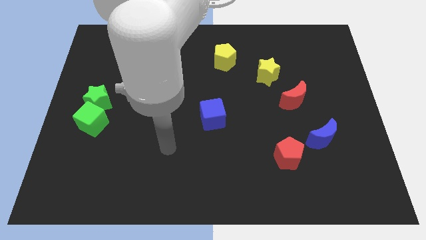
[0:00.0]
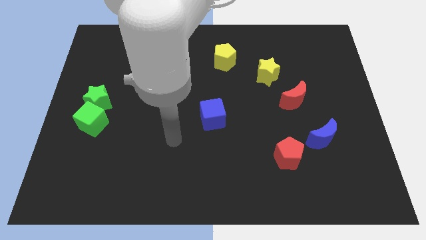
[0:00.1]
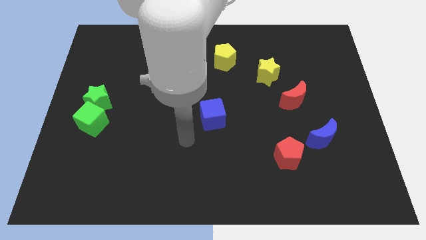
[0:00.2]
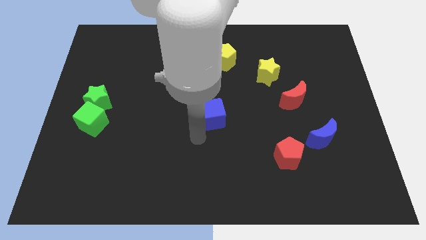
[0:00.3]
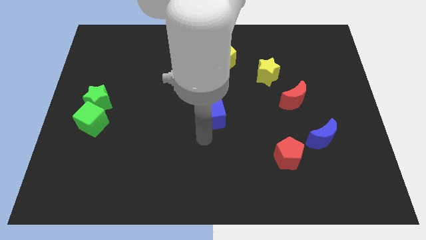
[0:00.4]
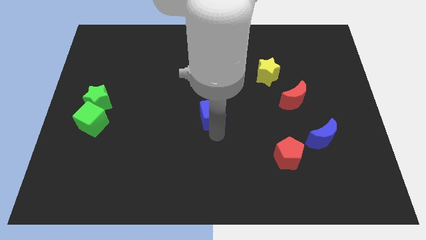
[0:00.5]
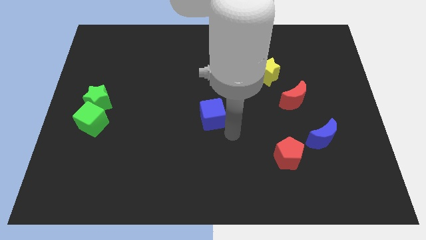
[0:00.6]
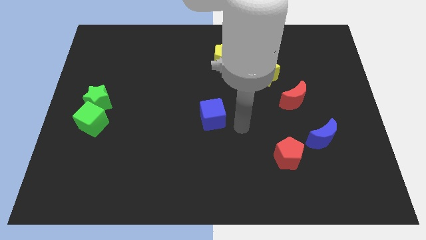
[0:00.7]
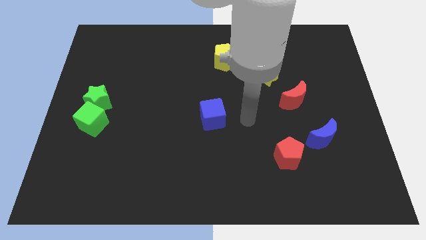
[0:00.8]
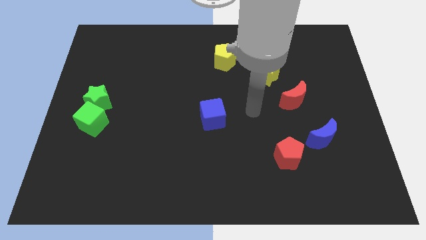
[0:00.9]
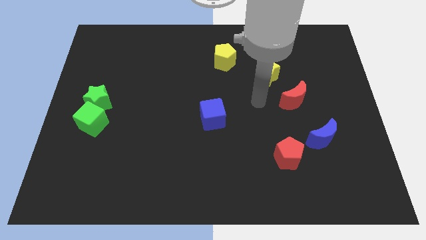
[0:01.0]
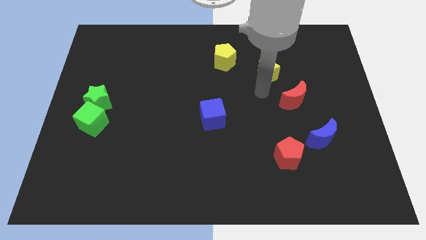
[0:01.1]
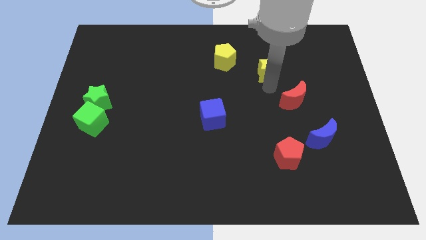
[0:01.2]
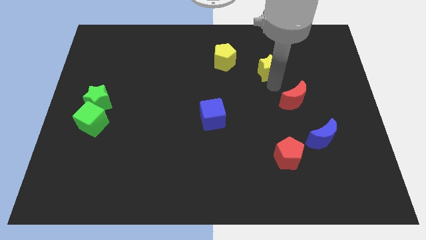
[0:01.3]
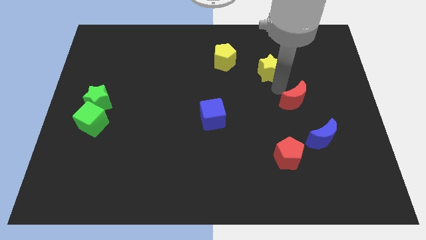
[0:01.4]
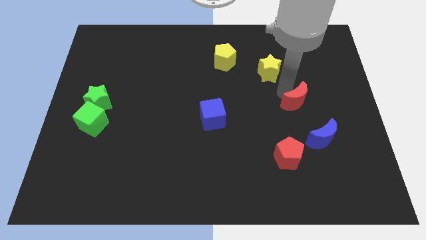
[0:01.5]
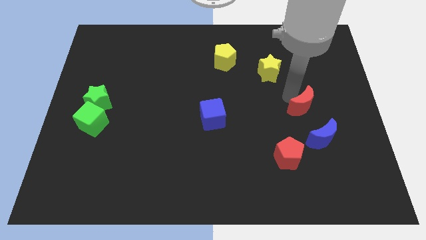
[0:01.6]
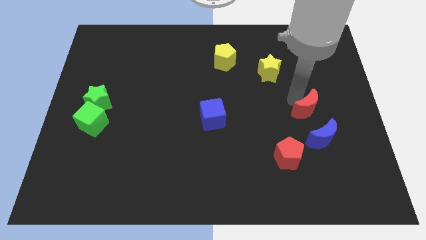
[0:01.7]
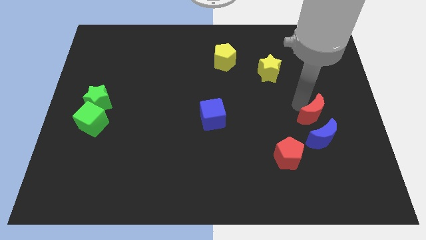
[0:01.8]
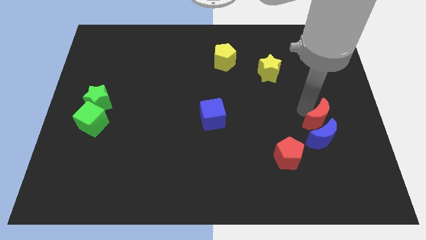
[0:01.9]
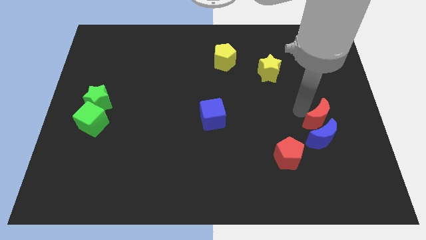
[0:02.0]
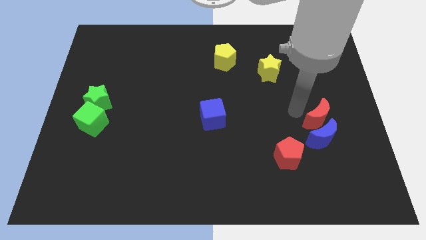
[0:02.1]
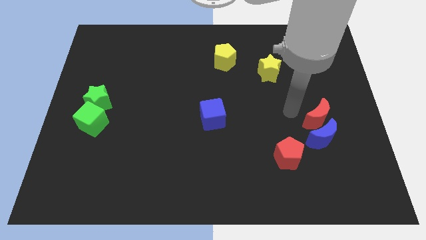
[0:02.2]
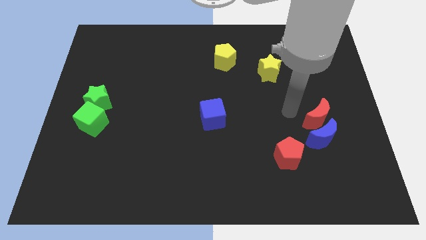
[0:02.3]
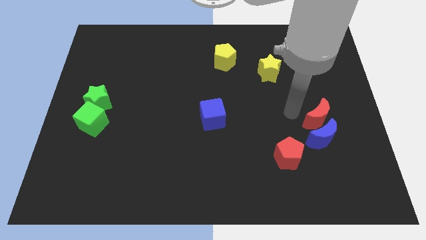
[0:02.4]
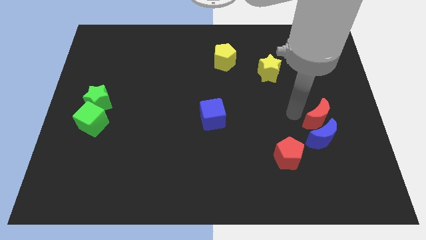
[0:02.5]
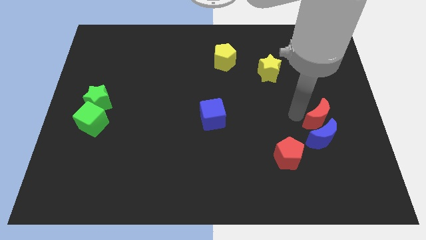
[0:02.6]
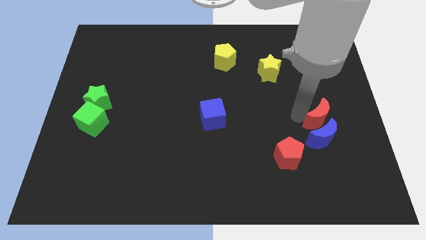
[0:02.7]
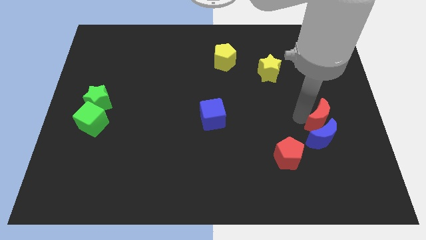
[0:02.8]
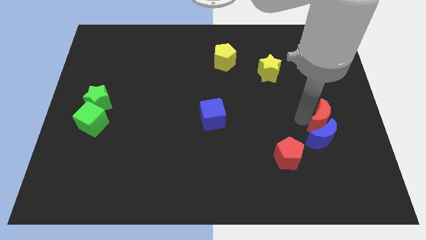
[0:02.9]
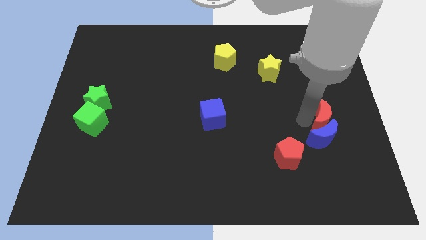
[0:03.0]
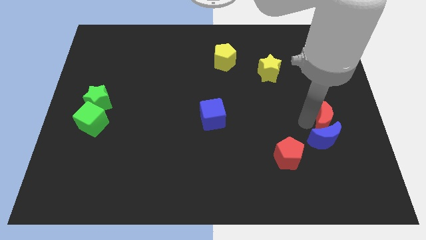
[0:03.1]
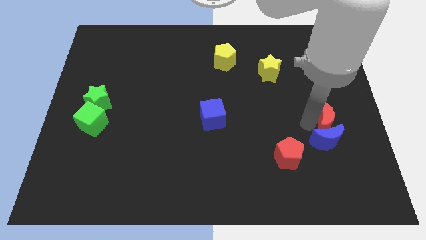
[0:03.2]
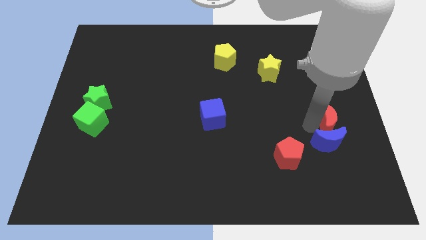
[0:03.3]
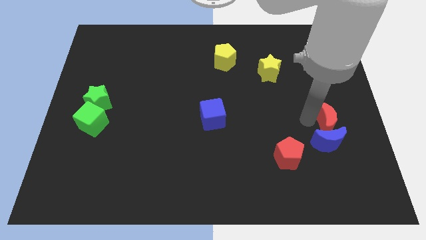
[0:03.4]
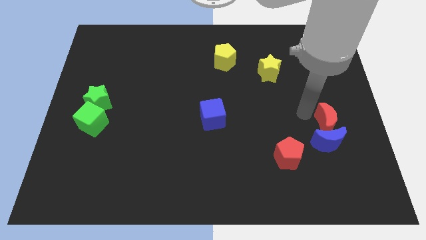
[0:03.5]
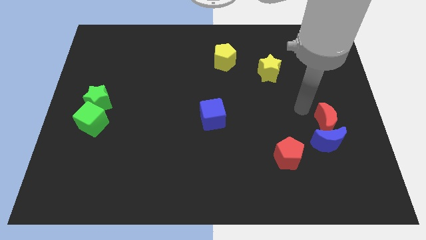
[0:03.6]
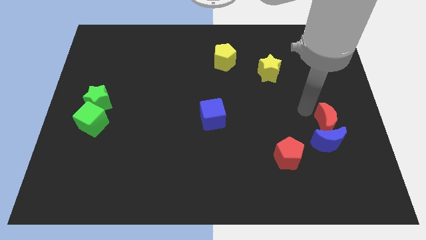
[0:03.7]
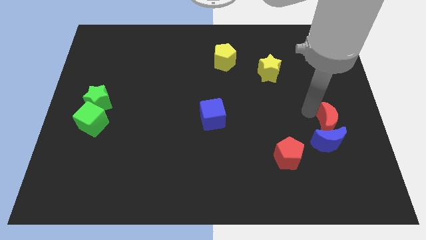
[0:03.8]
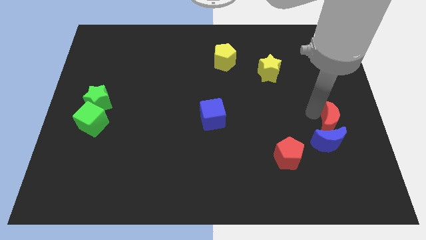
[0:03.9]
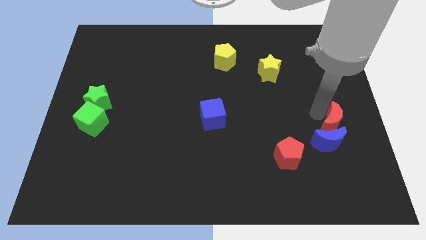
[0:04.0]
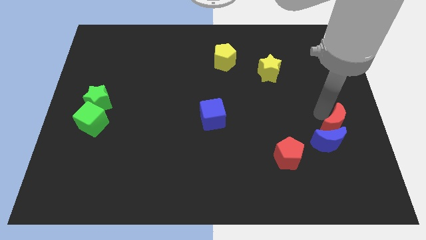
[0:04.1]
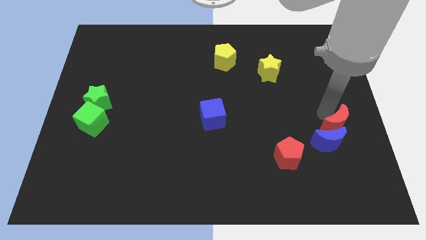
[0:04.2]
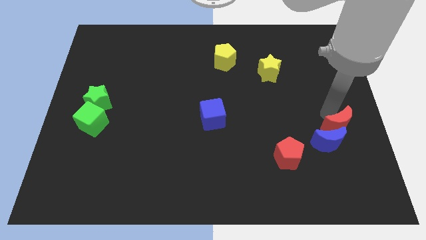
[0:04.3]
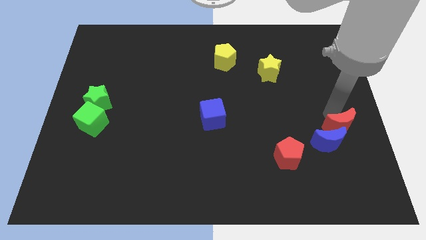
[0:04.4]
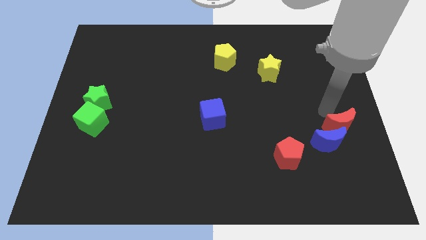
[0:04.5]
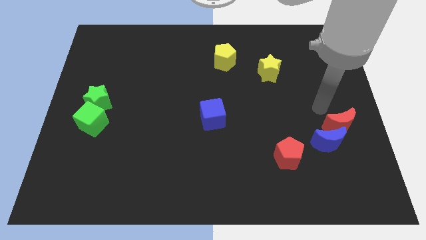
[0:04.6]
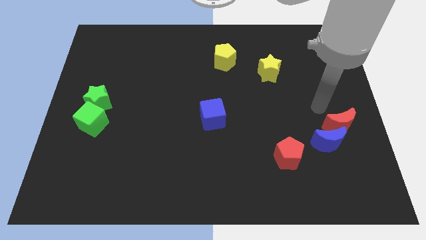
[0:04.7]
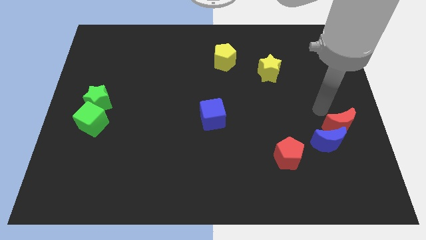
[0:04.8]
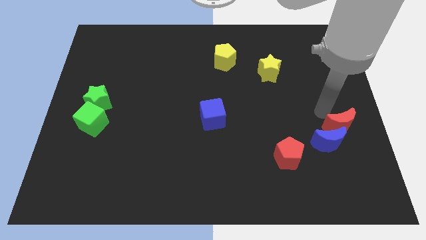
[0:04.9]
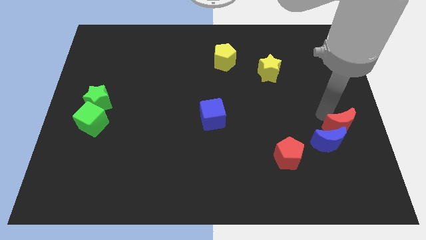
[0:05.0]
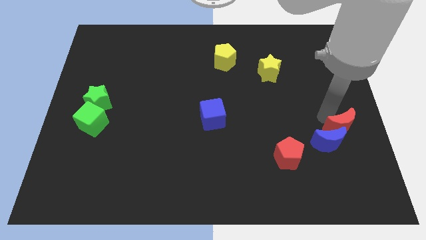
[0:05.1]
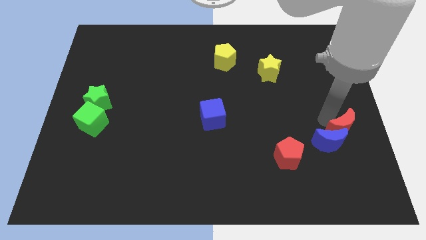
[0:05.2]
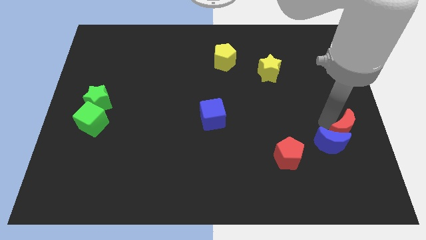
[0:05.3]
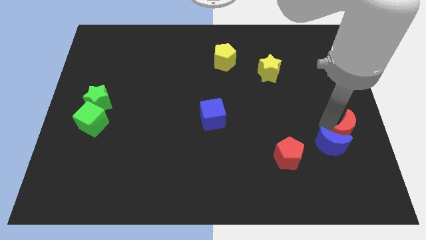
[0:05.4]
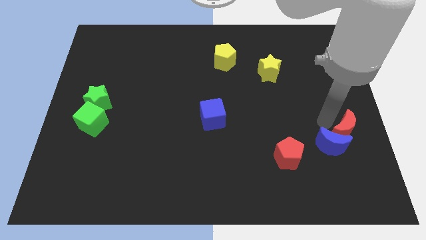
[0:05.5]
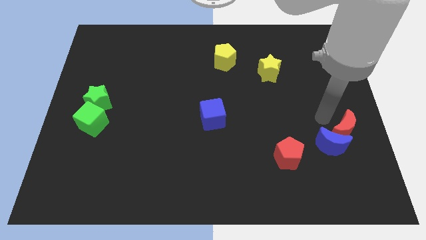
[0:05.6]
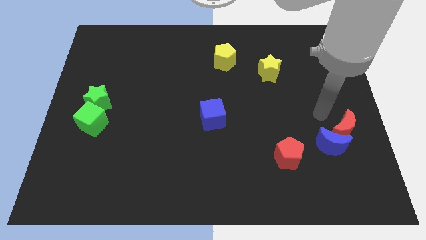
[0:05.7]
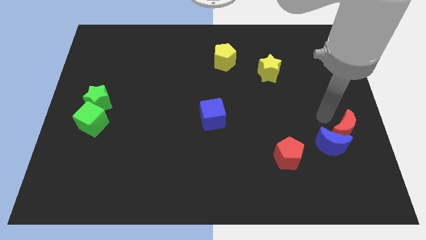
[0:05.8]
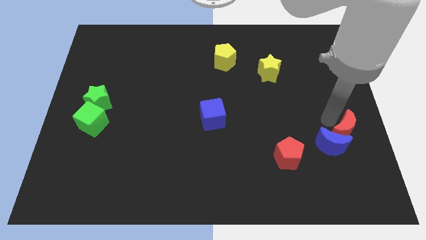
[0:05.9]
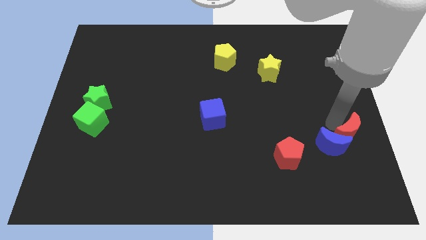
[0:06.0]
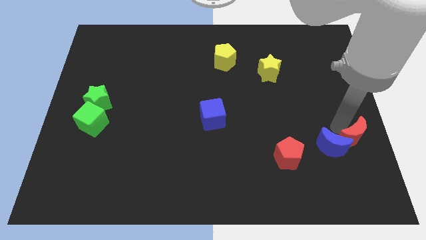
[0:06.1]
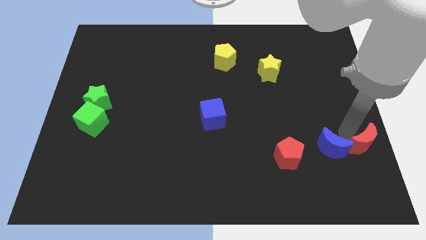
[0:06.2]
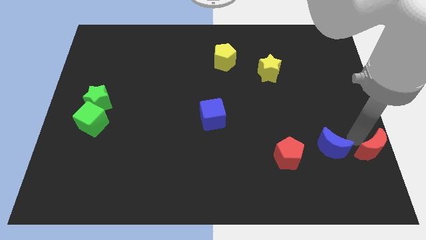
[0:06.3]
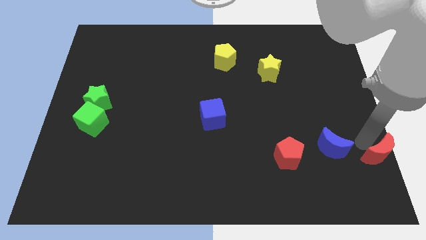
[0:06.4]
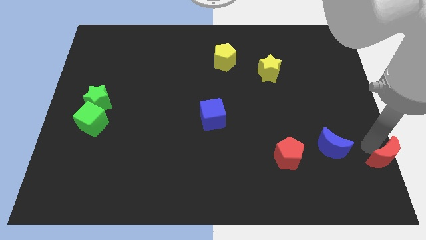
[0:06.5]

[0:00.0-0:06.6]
move the red moon to the bottom right corner
